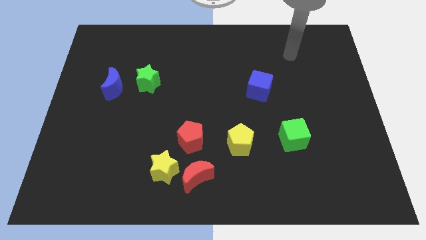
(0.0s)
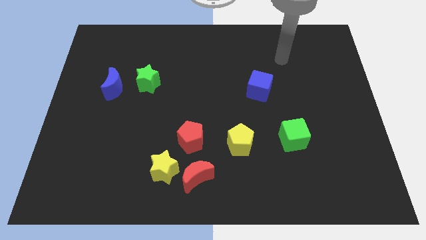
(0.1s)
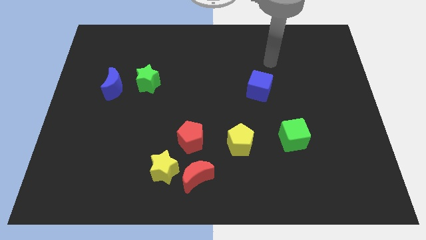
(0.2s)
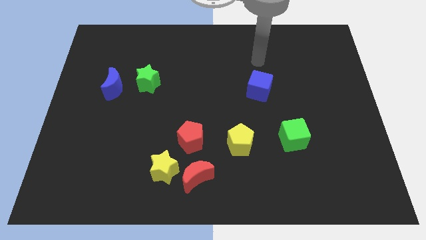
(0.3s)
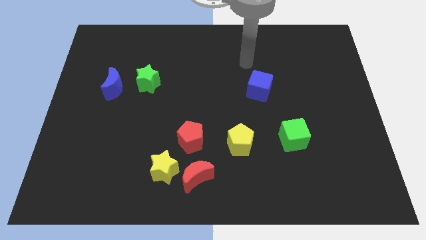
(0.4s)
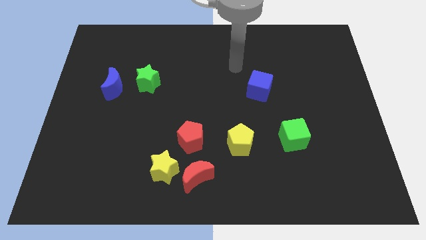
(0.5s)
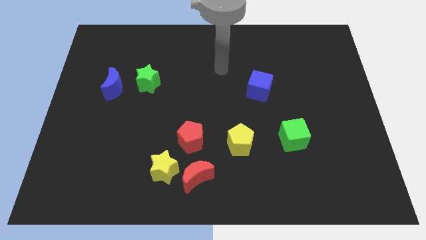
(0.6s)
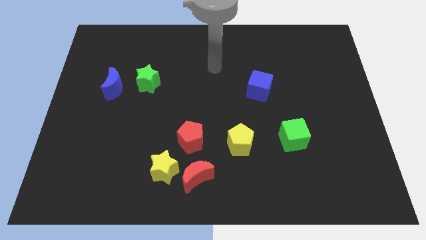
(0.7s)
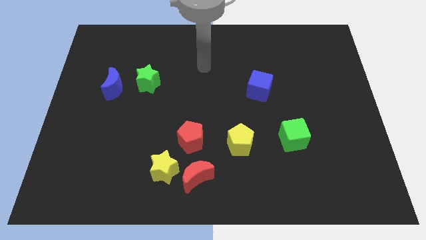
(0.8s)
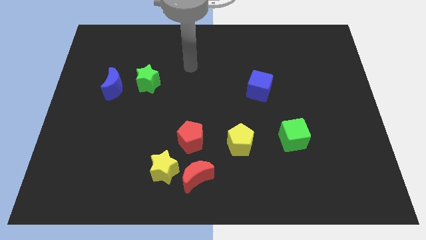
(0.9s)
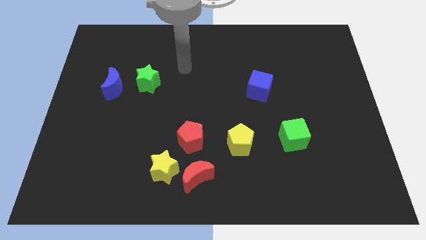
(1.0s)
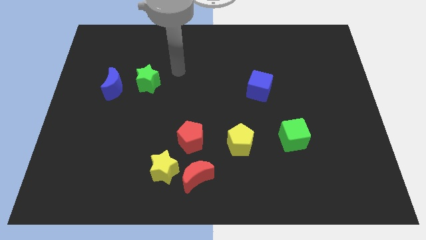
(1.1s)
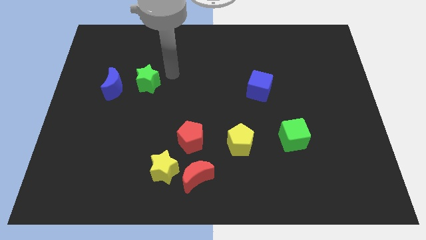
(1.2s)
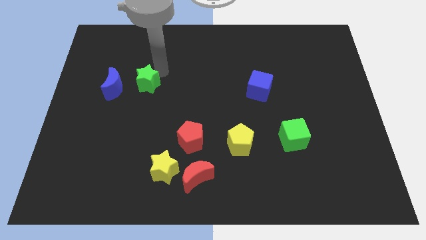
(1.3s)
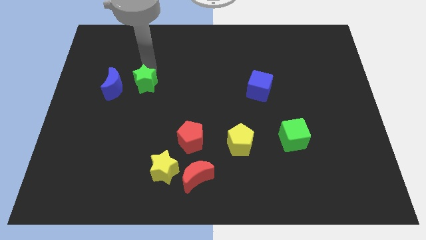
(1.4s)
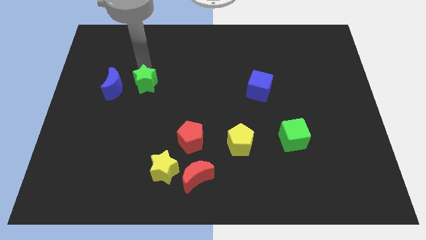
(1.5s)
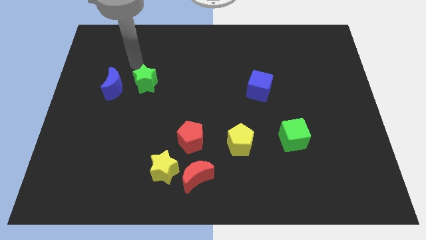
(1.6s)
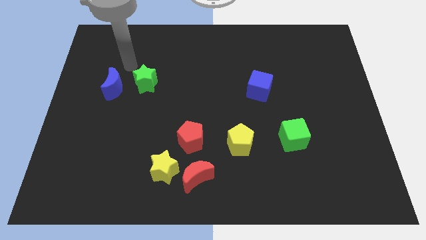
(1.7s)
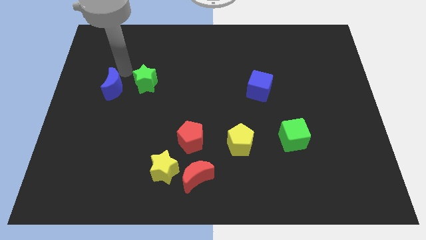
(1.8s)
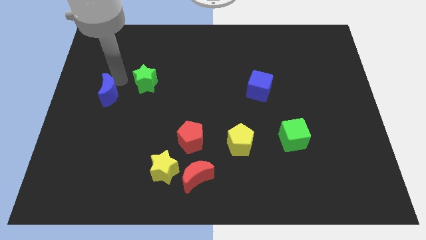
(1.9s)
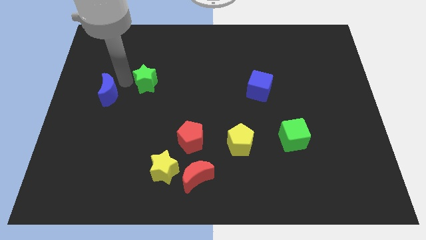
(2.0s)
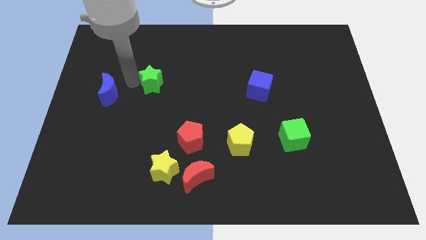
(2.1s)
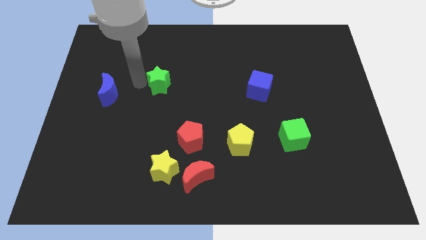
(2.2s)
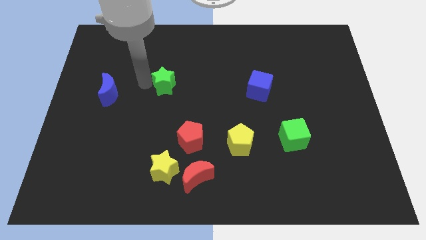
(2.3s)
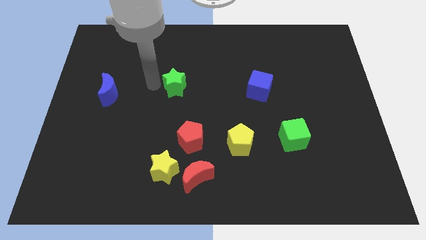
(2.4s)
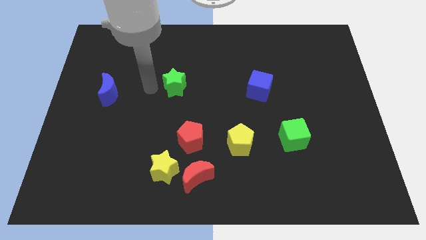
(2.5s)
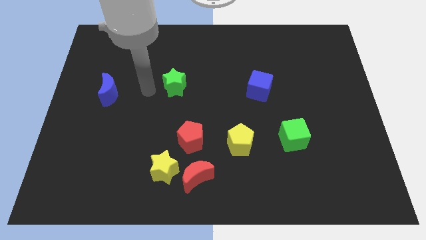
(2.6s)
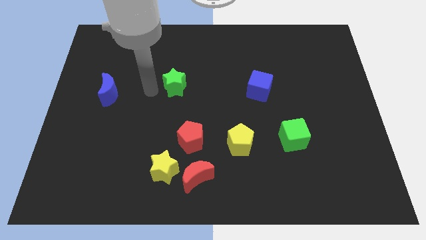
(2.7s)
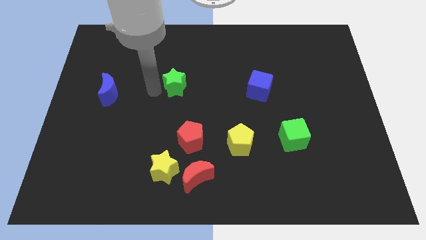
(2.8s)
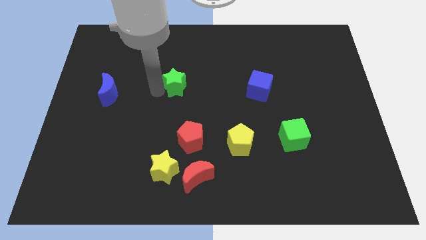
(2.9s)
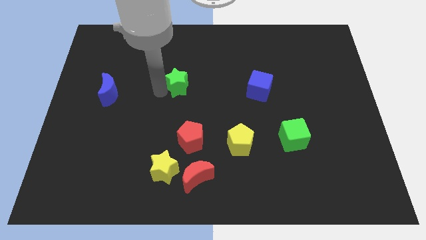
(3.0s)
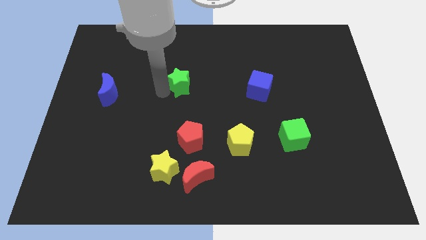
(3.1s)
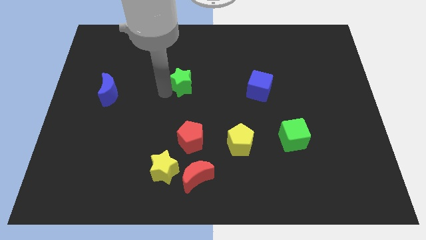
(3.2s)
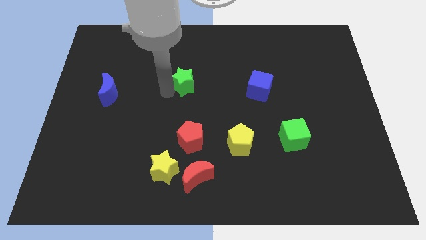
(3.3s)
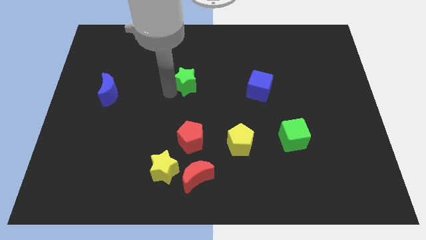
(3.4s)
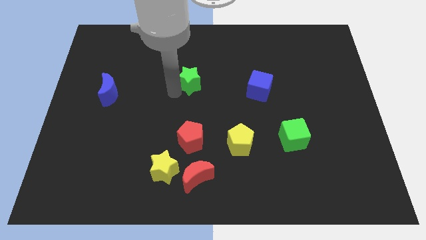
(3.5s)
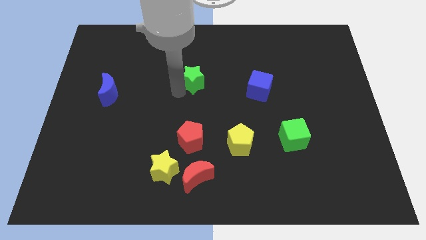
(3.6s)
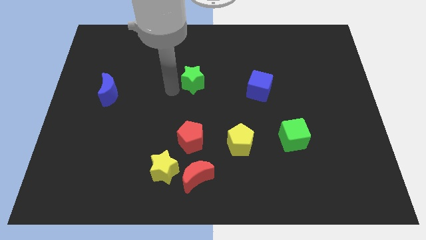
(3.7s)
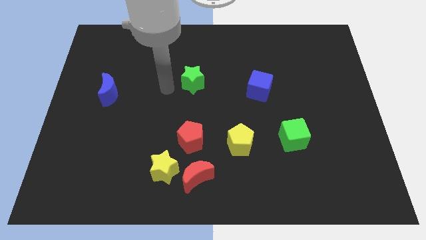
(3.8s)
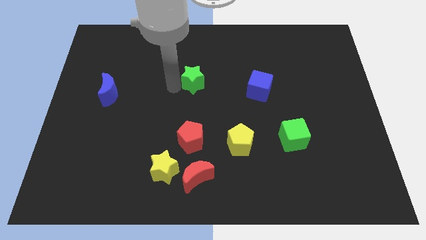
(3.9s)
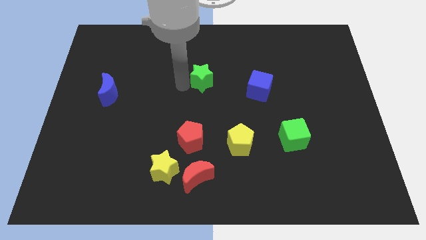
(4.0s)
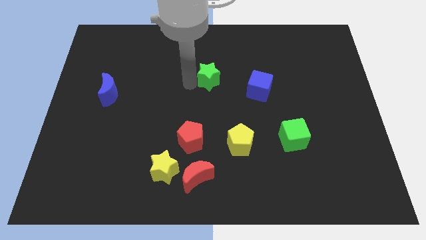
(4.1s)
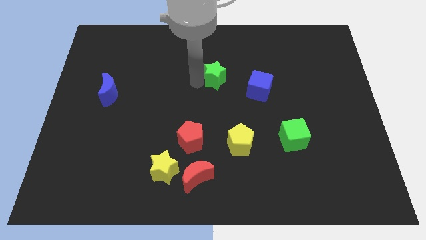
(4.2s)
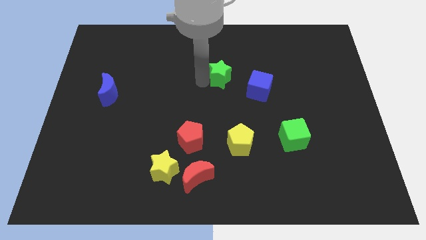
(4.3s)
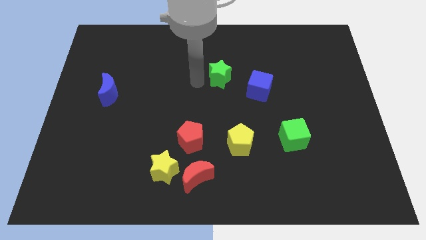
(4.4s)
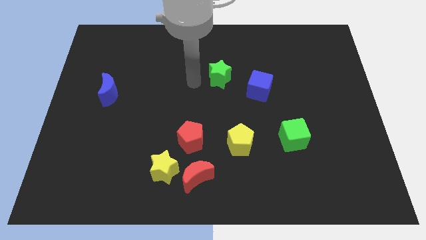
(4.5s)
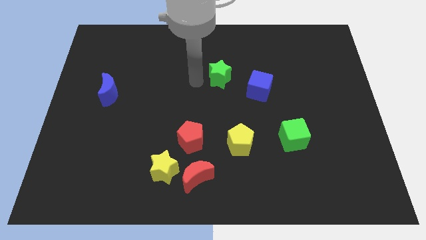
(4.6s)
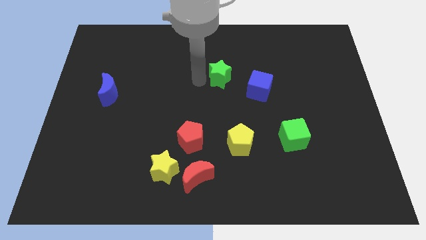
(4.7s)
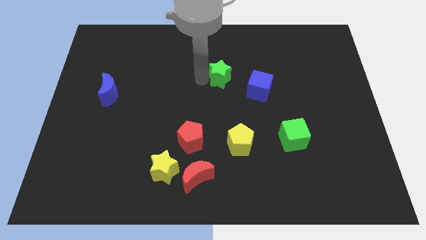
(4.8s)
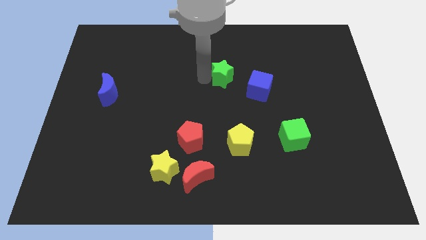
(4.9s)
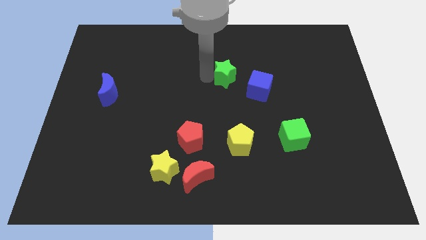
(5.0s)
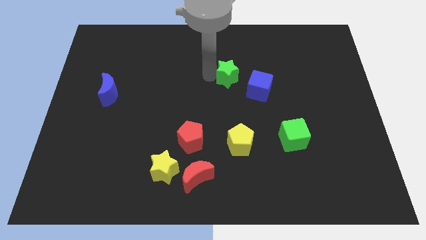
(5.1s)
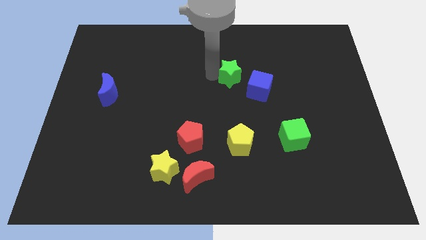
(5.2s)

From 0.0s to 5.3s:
move the green star right

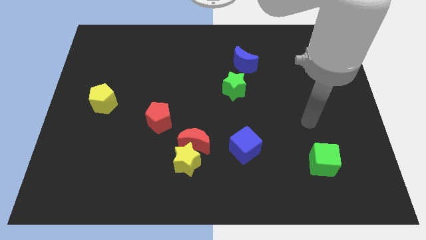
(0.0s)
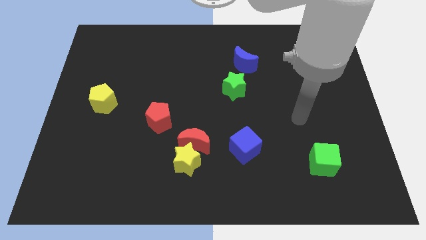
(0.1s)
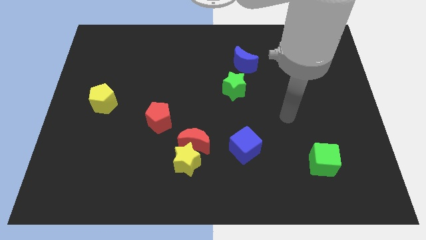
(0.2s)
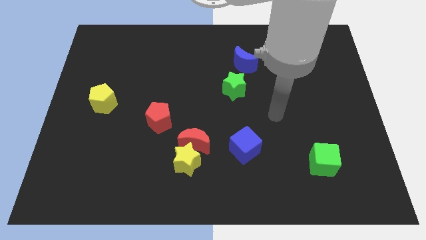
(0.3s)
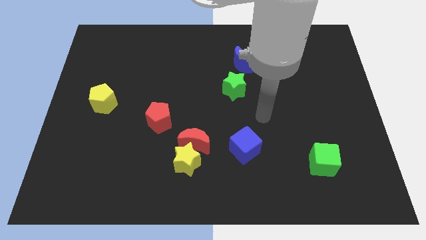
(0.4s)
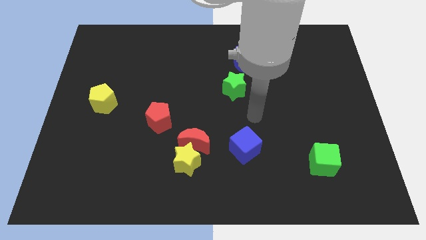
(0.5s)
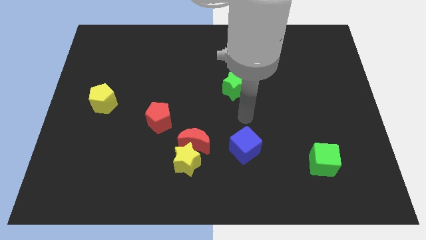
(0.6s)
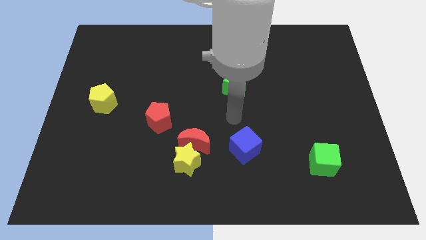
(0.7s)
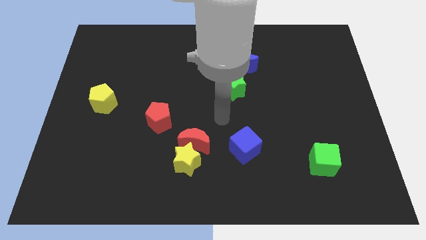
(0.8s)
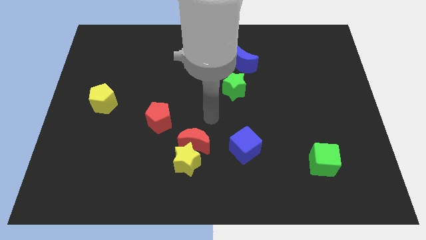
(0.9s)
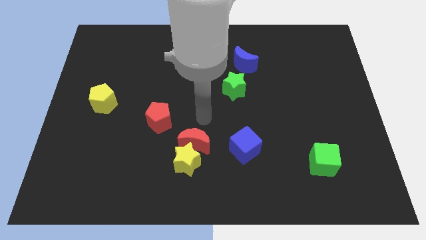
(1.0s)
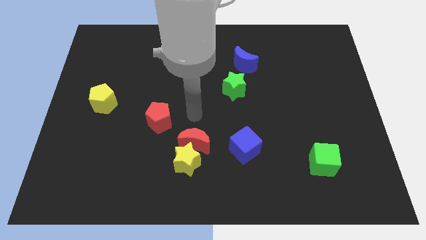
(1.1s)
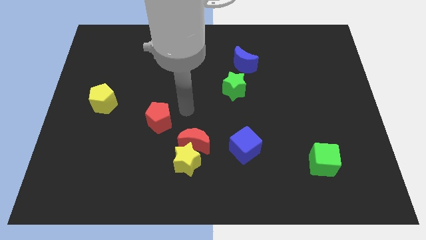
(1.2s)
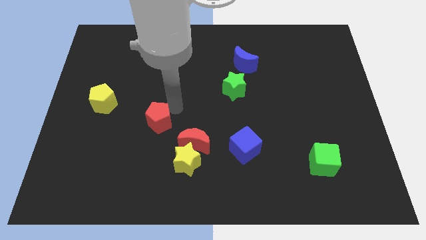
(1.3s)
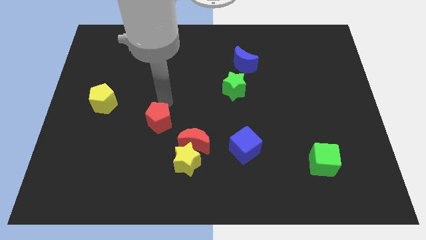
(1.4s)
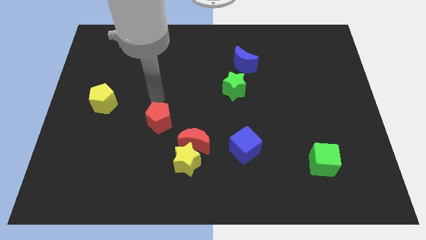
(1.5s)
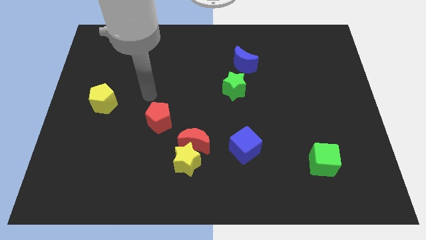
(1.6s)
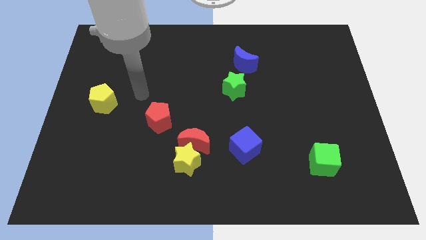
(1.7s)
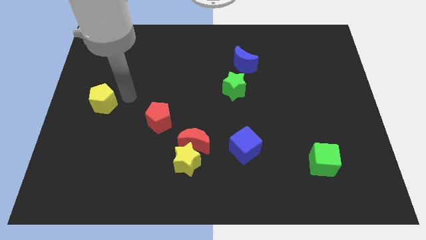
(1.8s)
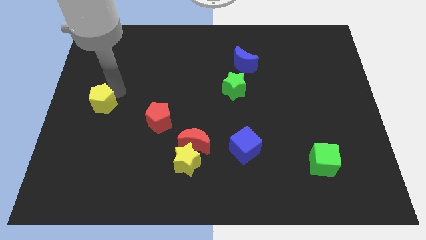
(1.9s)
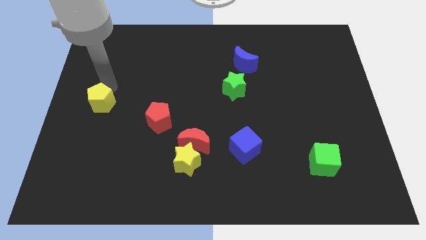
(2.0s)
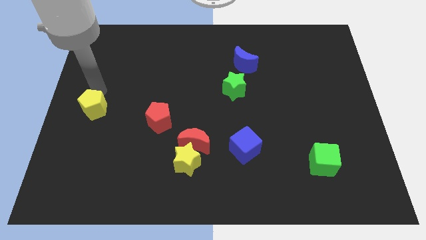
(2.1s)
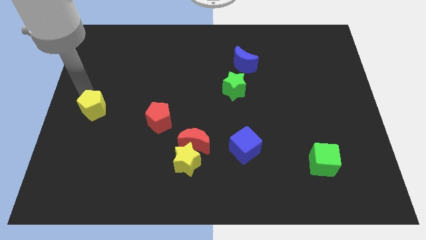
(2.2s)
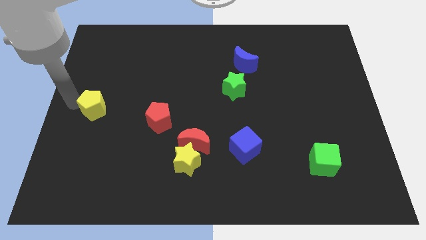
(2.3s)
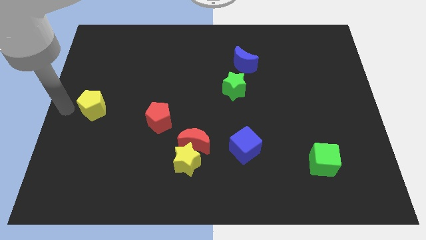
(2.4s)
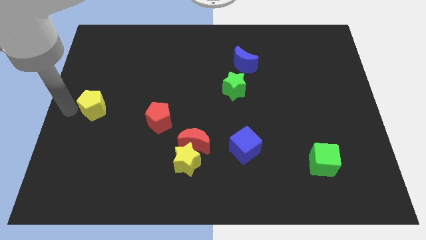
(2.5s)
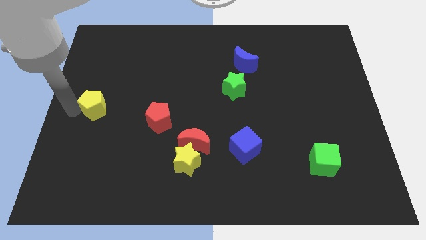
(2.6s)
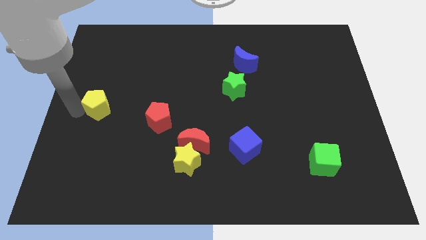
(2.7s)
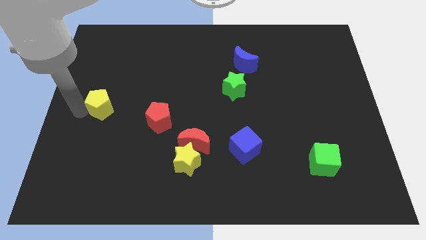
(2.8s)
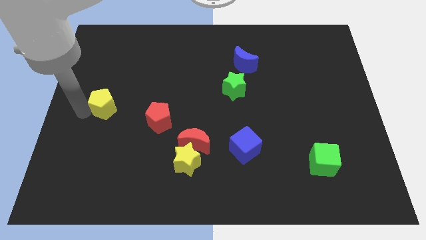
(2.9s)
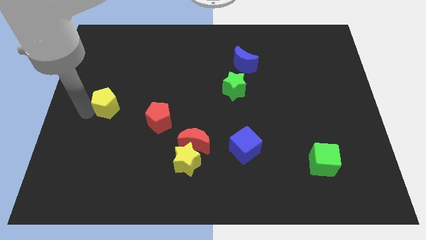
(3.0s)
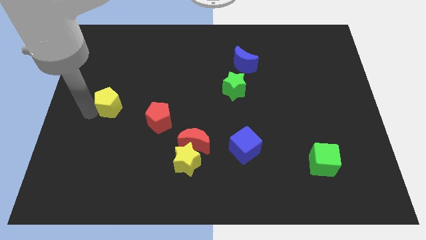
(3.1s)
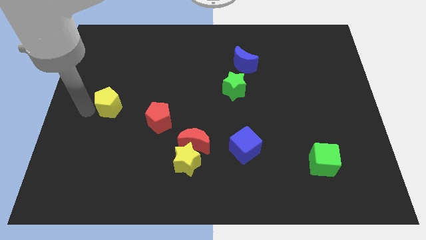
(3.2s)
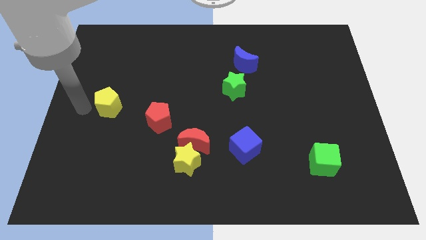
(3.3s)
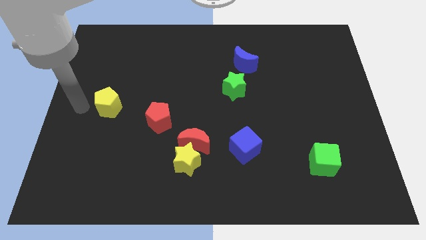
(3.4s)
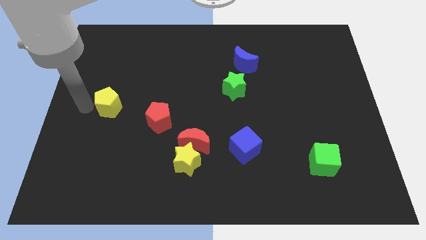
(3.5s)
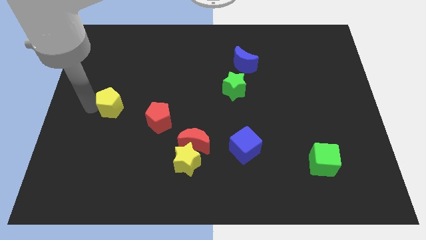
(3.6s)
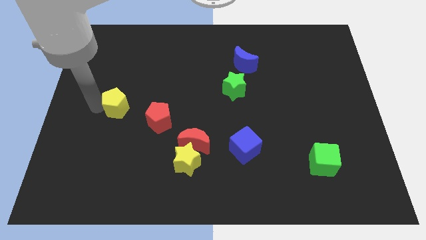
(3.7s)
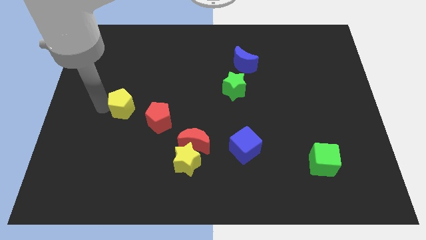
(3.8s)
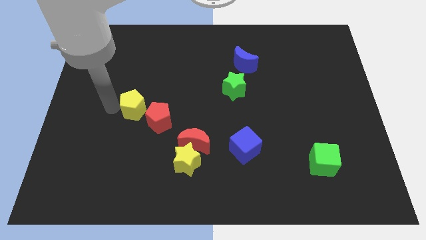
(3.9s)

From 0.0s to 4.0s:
push the yellow pentagon slightly to the right
